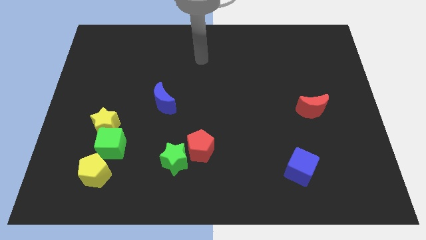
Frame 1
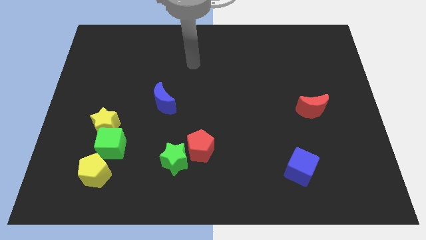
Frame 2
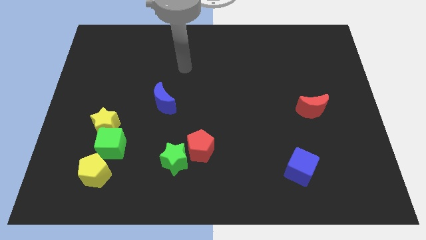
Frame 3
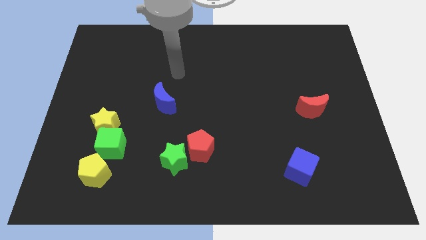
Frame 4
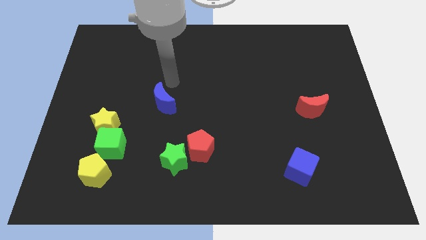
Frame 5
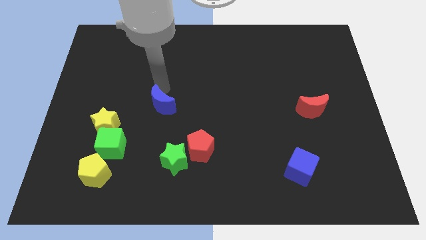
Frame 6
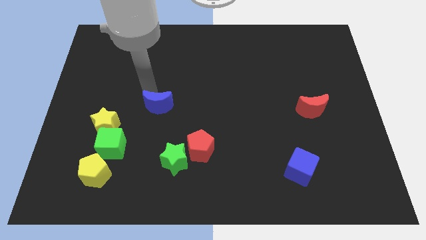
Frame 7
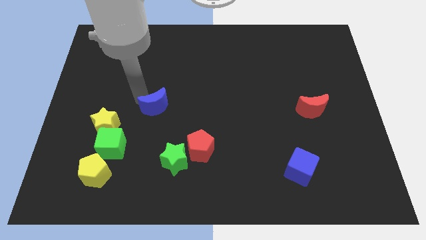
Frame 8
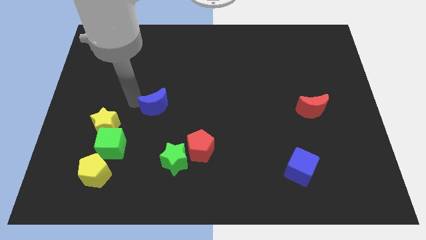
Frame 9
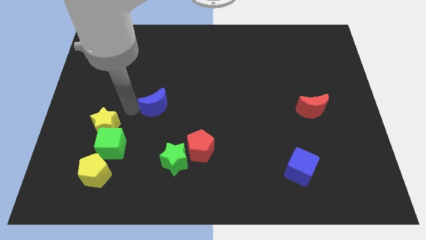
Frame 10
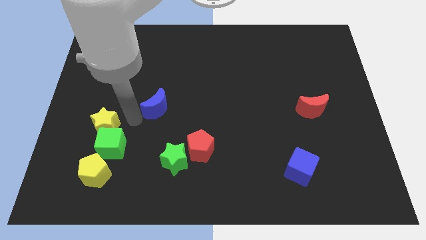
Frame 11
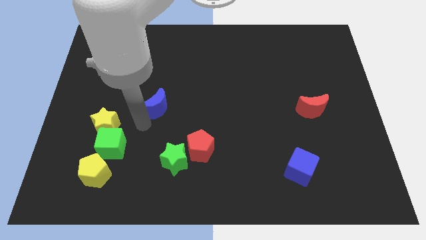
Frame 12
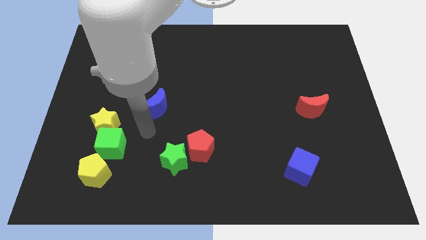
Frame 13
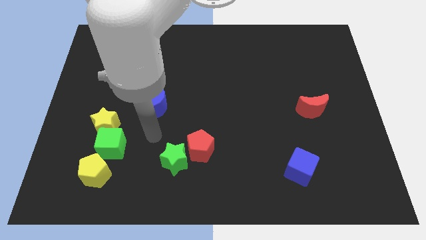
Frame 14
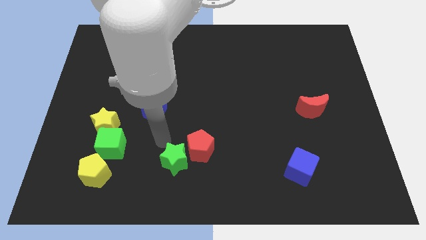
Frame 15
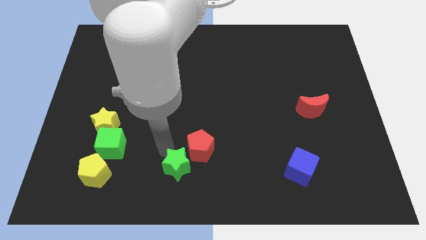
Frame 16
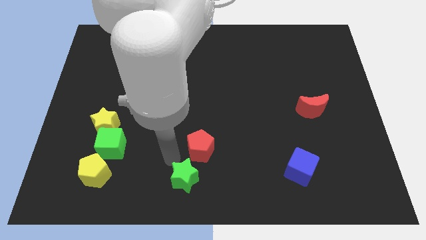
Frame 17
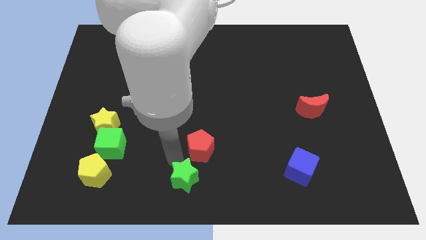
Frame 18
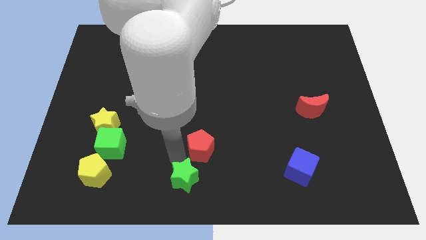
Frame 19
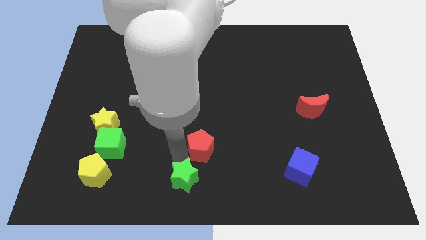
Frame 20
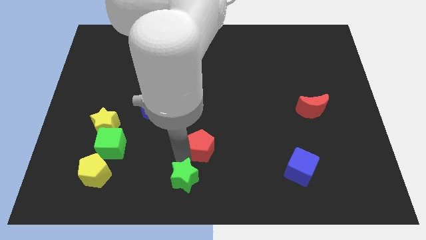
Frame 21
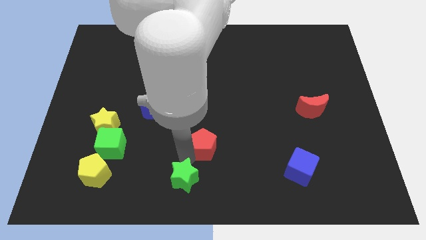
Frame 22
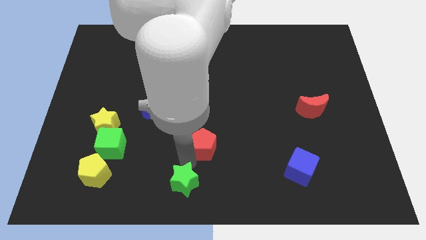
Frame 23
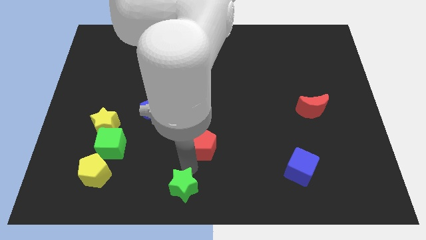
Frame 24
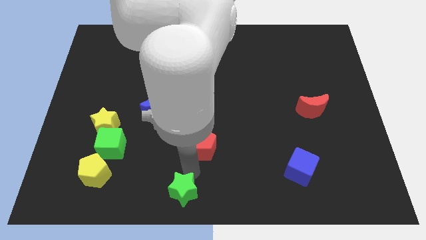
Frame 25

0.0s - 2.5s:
separate the red pentagon from the green star

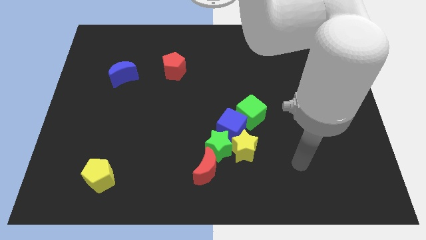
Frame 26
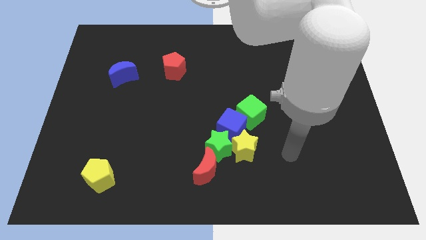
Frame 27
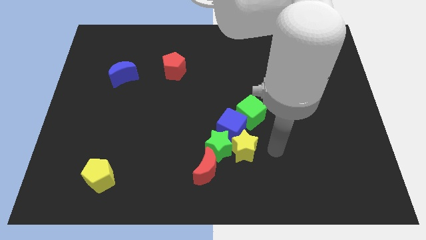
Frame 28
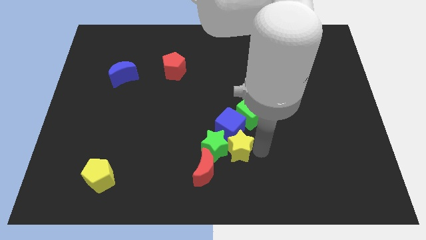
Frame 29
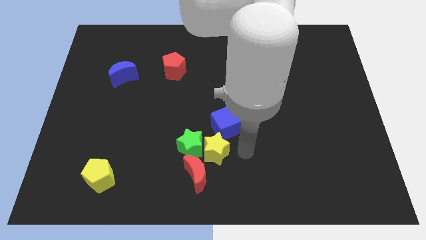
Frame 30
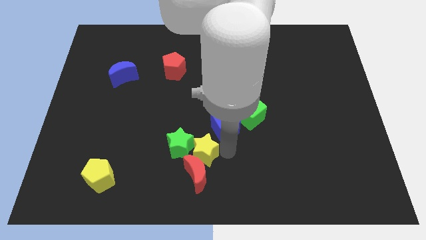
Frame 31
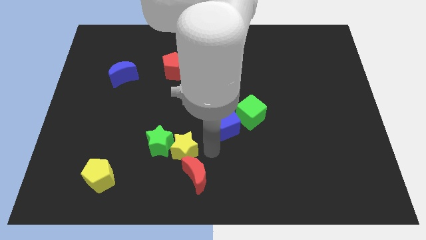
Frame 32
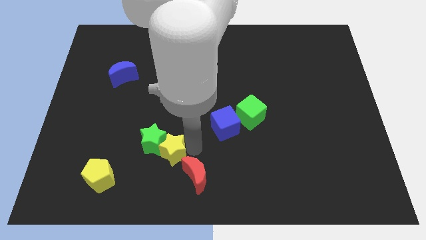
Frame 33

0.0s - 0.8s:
separate the green star from the yellow star, blue cube, and red moon

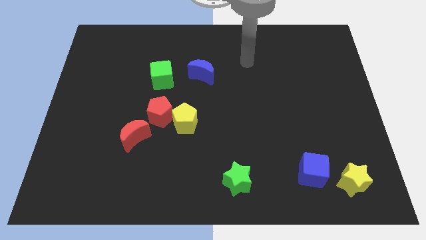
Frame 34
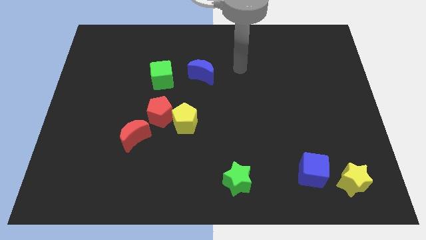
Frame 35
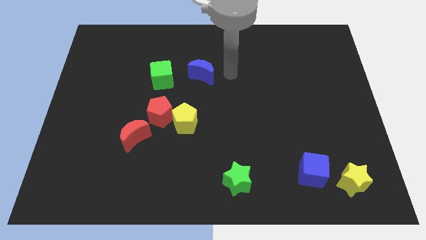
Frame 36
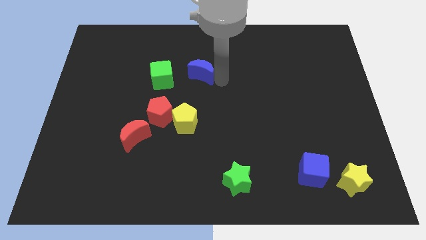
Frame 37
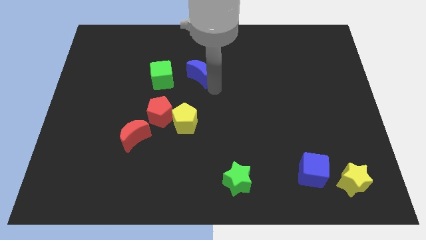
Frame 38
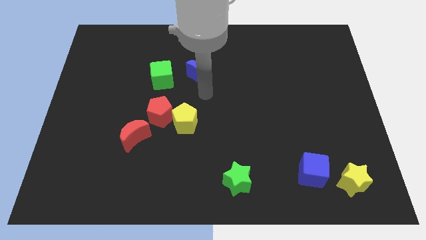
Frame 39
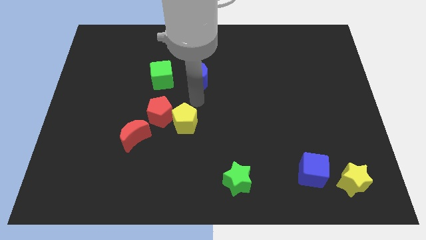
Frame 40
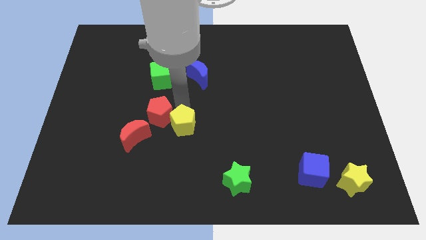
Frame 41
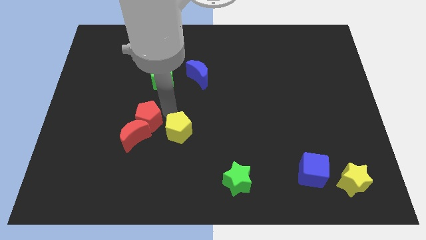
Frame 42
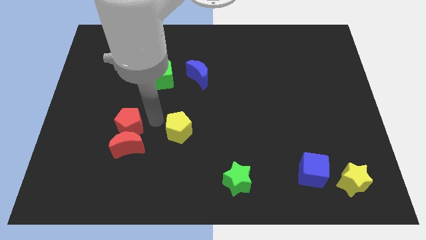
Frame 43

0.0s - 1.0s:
pull the yellow pentagon apart from the red pentagon

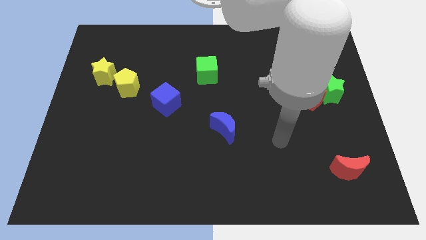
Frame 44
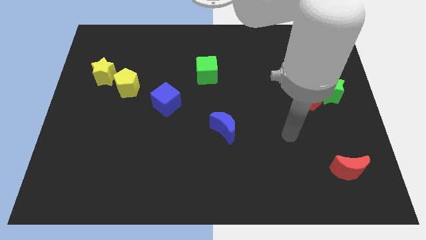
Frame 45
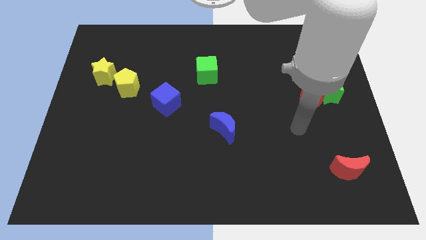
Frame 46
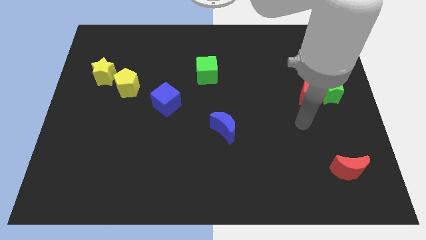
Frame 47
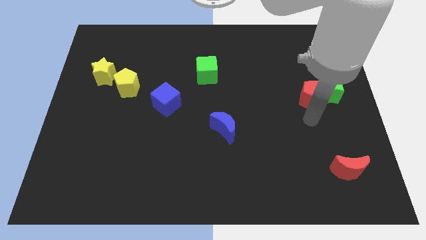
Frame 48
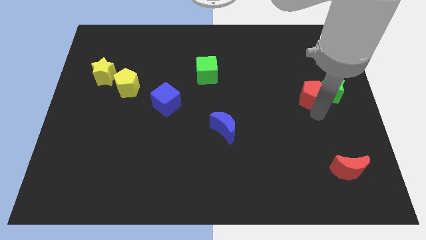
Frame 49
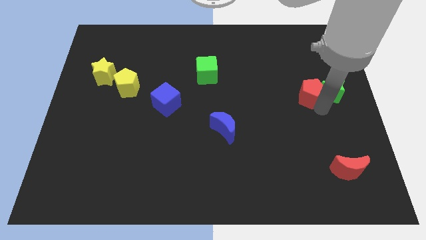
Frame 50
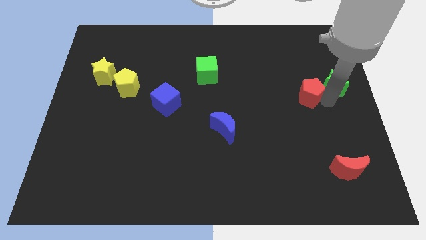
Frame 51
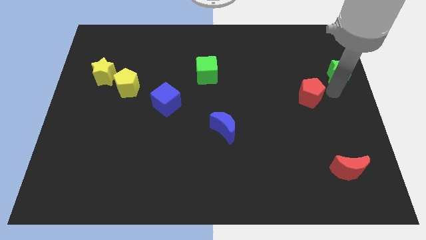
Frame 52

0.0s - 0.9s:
move the red pentagon away from the green star

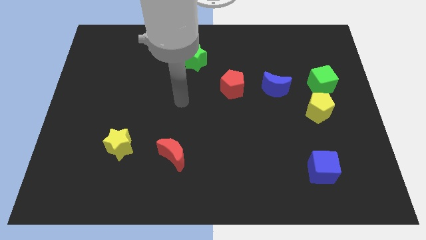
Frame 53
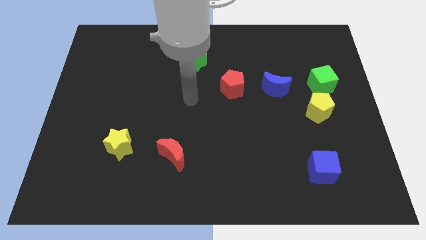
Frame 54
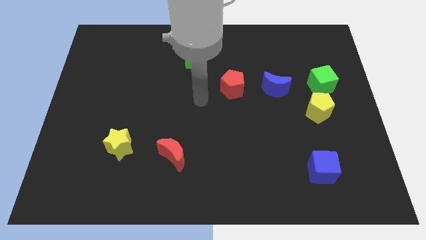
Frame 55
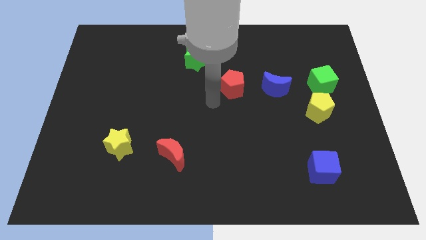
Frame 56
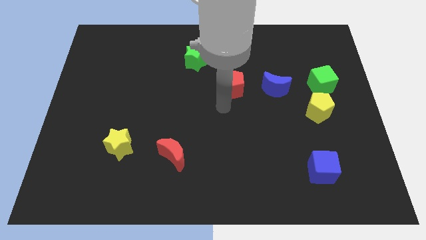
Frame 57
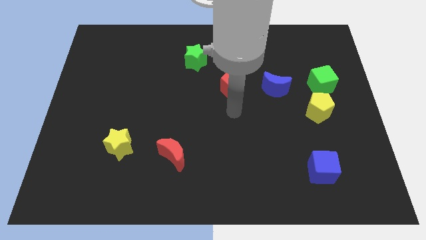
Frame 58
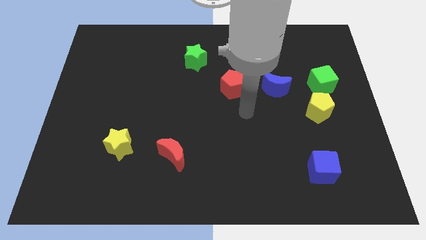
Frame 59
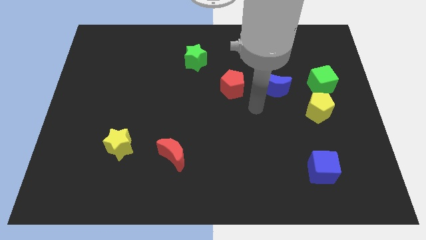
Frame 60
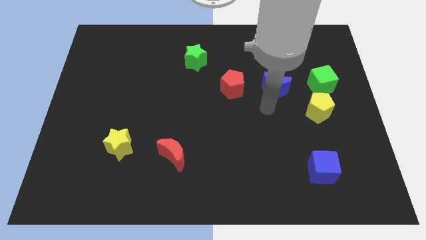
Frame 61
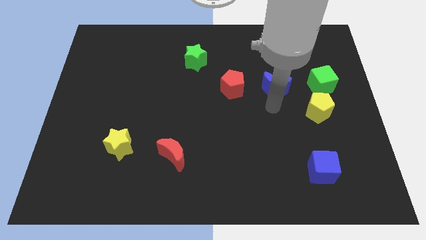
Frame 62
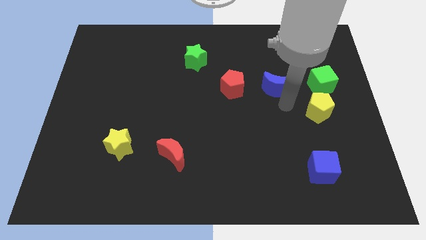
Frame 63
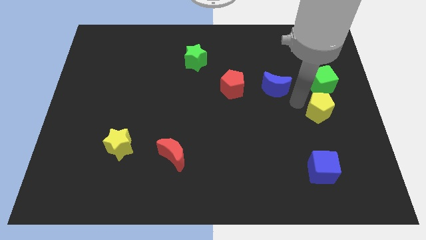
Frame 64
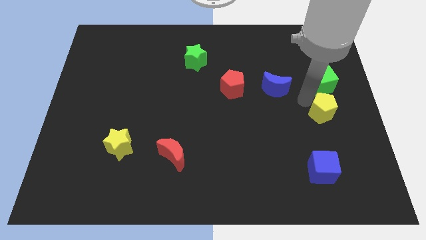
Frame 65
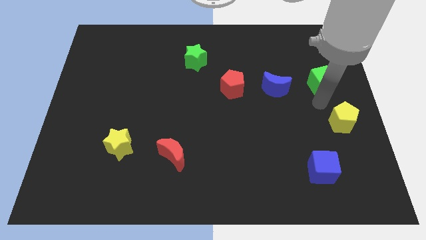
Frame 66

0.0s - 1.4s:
move the green cube away from the yellow pentagon

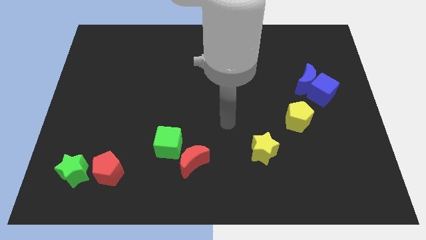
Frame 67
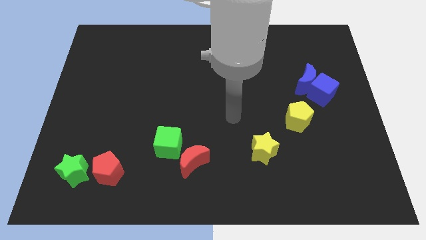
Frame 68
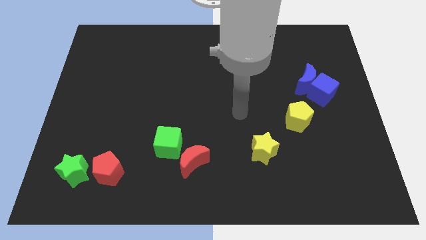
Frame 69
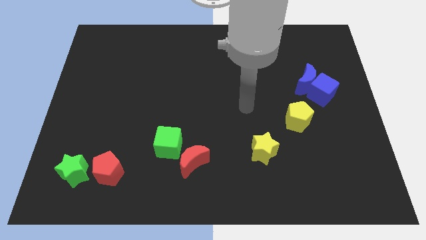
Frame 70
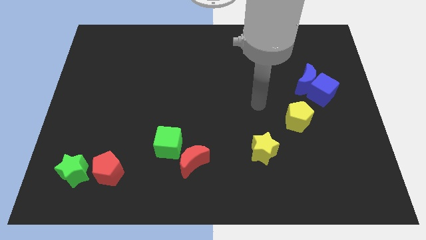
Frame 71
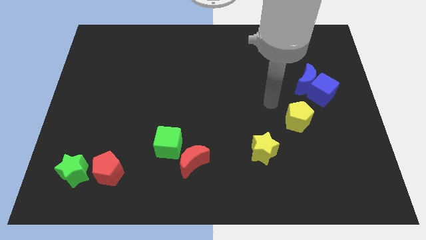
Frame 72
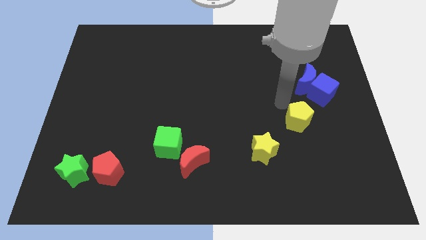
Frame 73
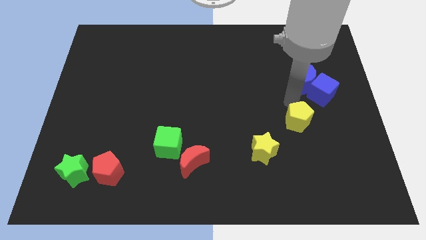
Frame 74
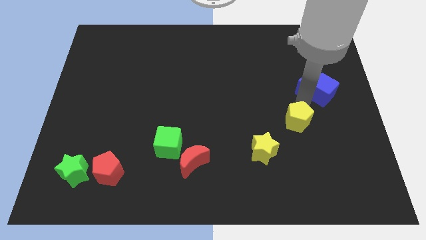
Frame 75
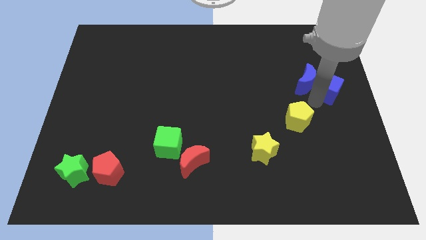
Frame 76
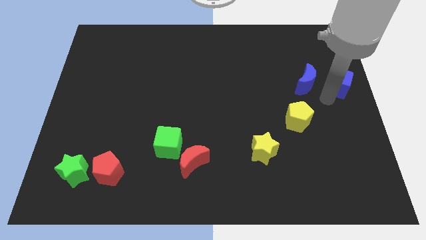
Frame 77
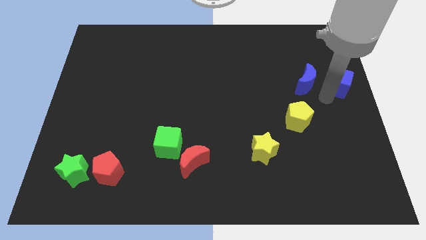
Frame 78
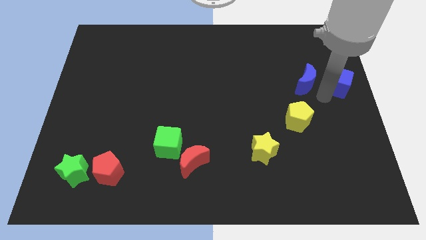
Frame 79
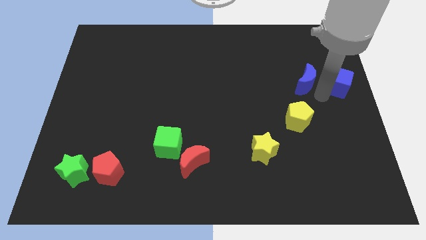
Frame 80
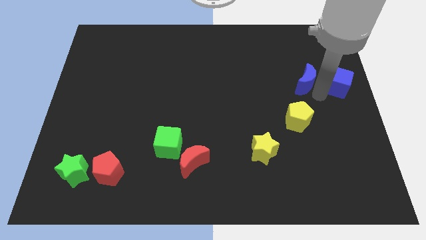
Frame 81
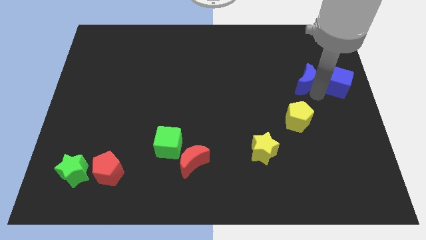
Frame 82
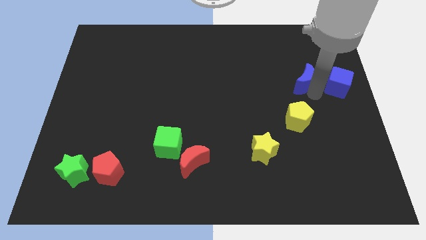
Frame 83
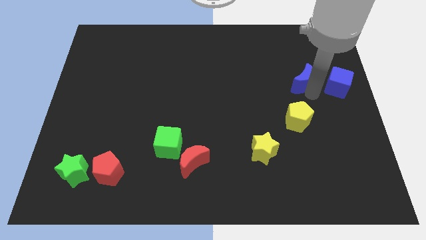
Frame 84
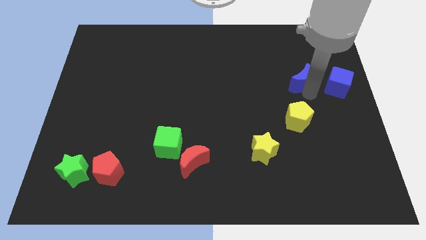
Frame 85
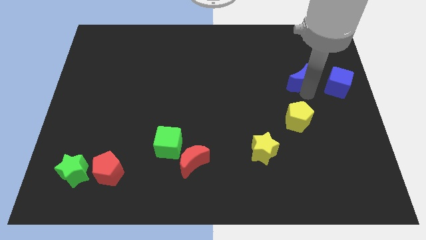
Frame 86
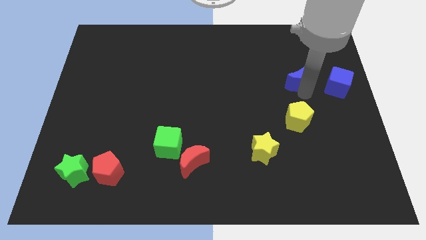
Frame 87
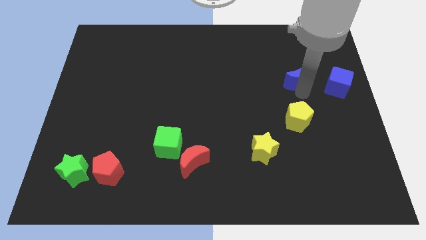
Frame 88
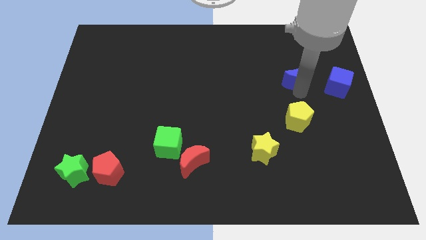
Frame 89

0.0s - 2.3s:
move the blue moon away from the blue cube

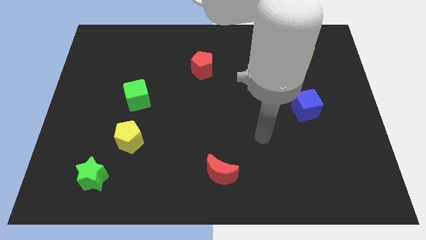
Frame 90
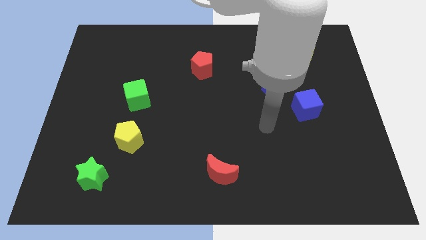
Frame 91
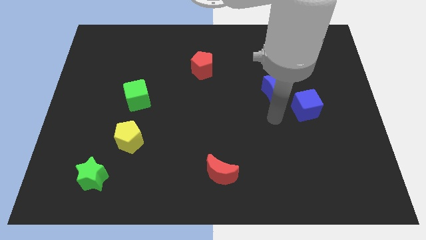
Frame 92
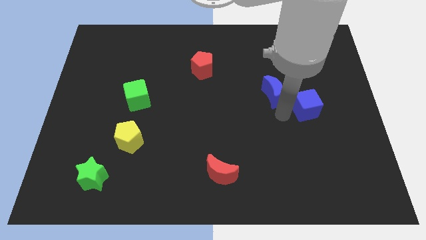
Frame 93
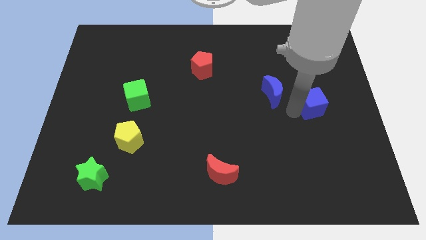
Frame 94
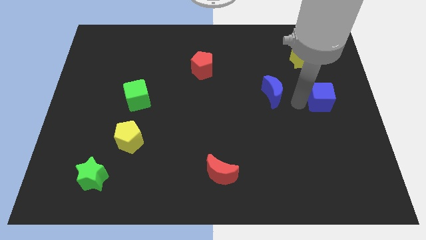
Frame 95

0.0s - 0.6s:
pull the blue moon apart from the blue cube
